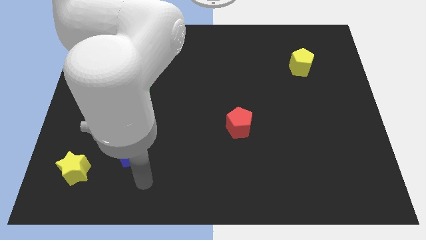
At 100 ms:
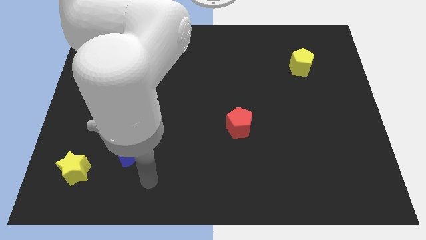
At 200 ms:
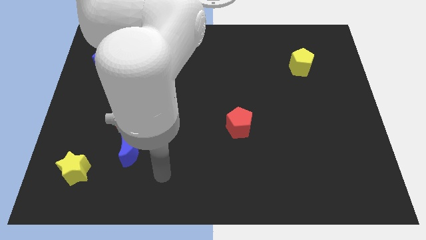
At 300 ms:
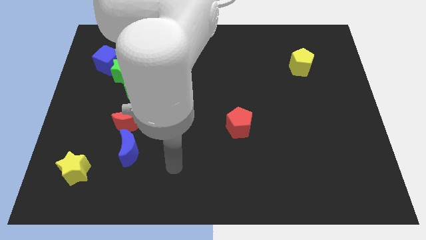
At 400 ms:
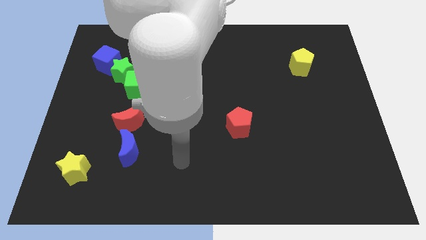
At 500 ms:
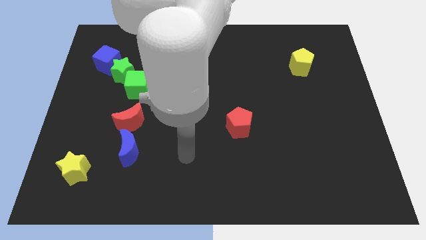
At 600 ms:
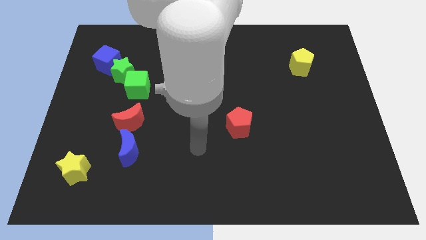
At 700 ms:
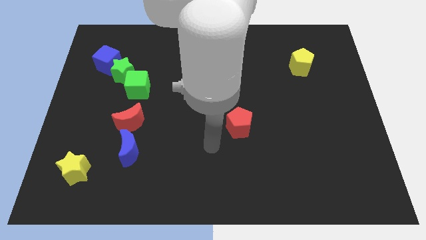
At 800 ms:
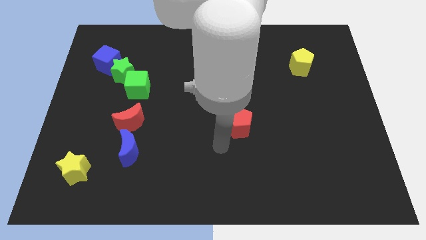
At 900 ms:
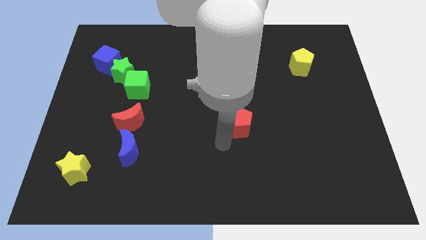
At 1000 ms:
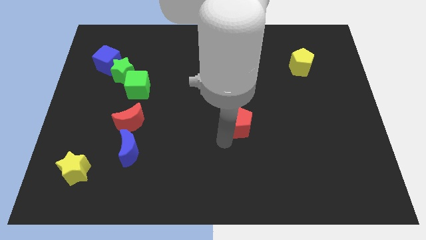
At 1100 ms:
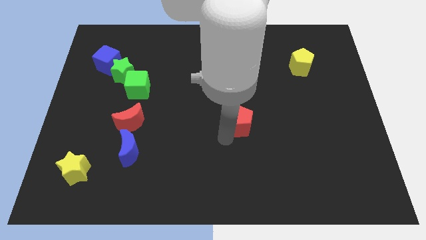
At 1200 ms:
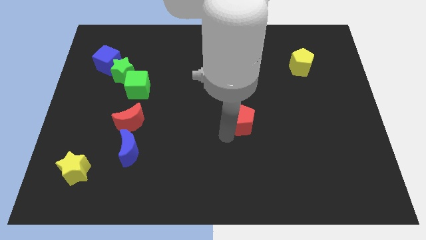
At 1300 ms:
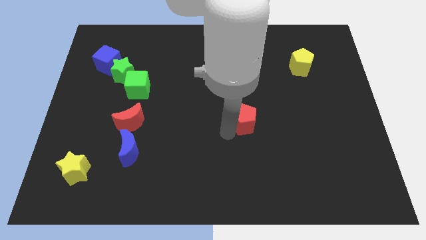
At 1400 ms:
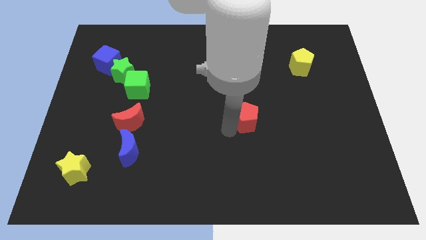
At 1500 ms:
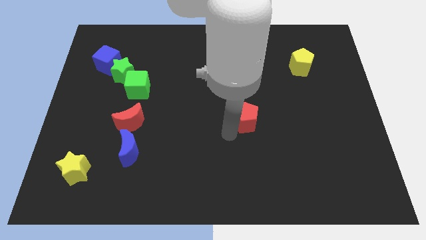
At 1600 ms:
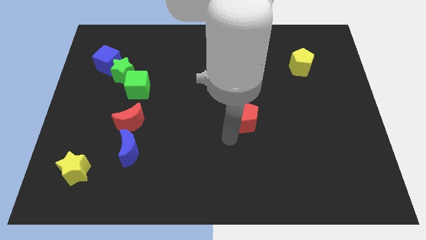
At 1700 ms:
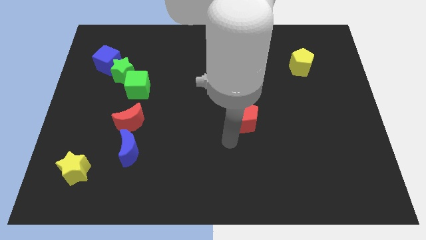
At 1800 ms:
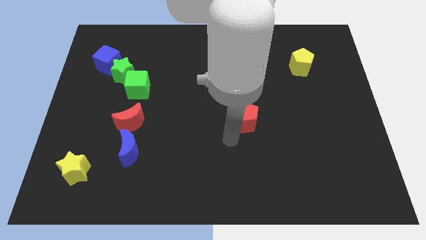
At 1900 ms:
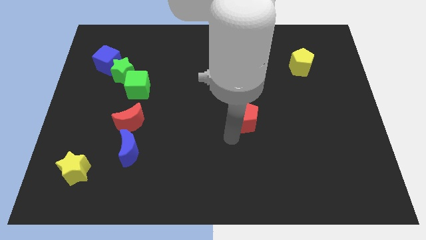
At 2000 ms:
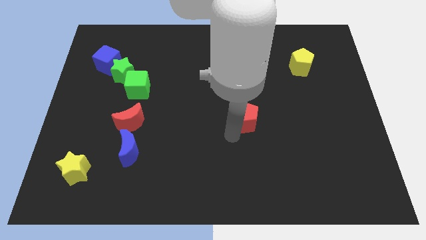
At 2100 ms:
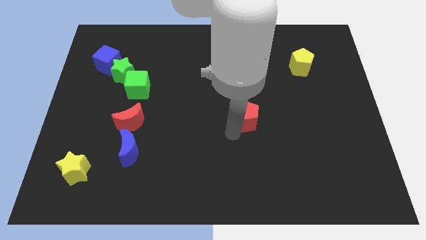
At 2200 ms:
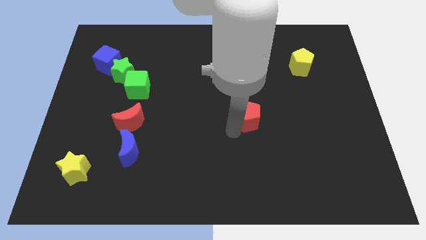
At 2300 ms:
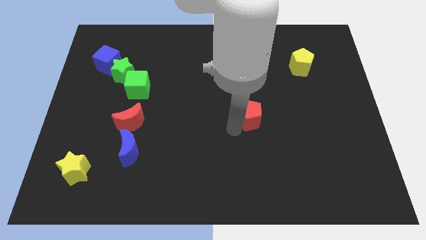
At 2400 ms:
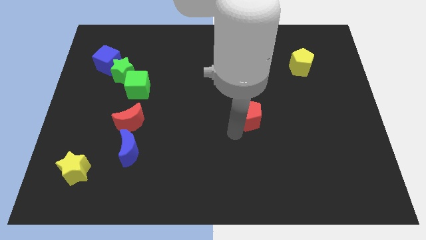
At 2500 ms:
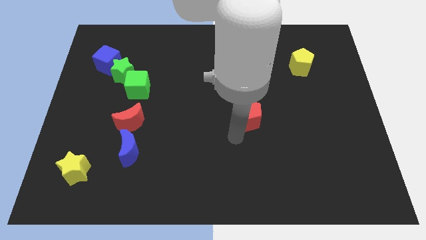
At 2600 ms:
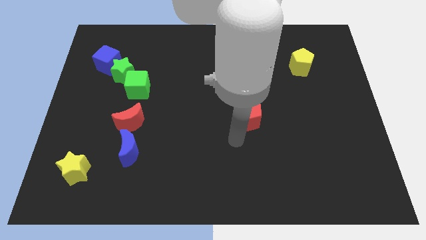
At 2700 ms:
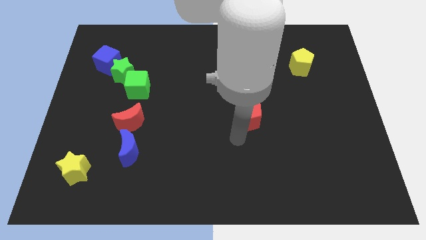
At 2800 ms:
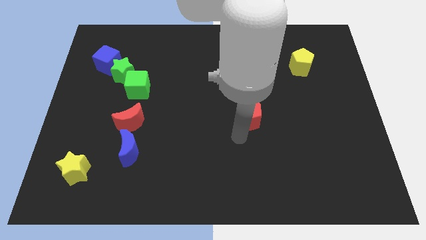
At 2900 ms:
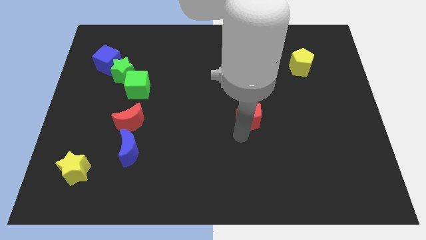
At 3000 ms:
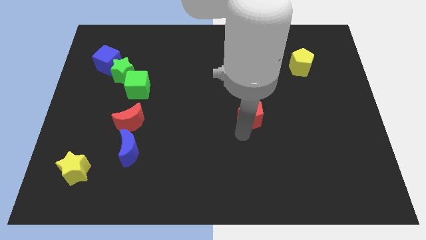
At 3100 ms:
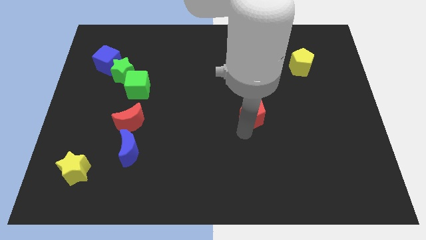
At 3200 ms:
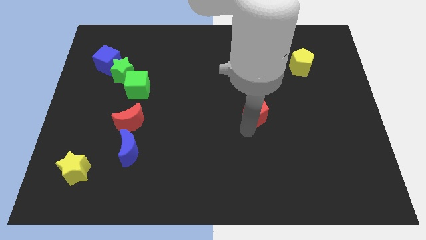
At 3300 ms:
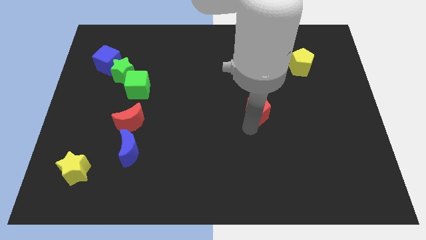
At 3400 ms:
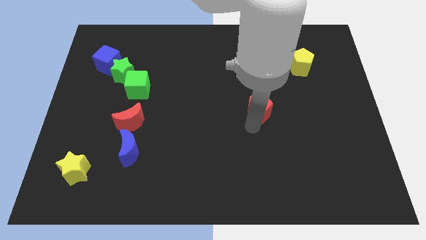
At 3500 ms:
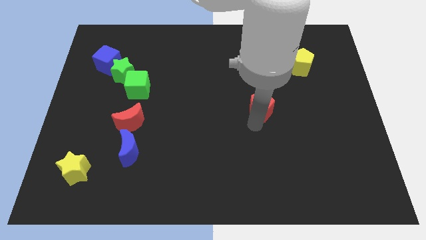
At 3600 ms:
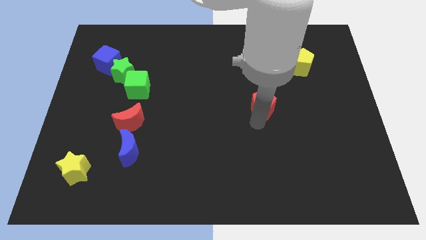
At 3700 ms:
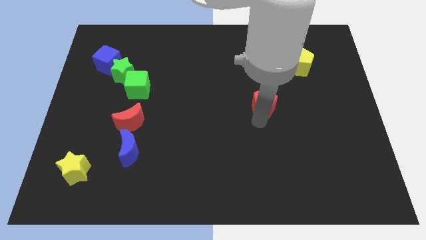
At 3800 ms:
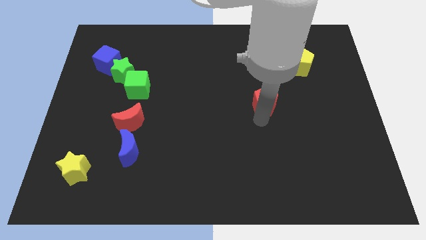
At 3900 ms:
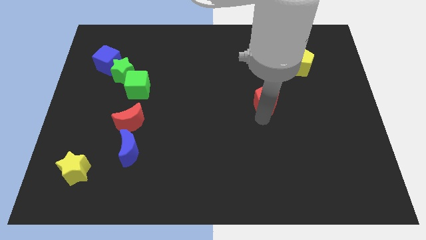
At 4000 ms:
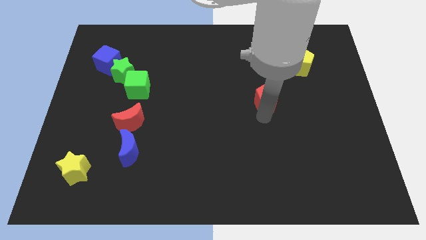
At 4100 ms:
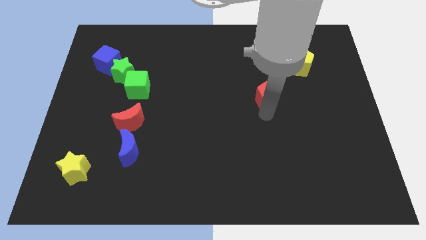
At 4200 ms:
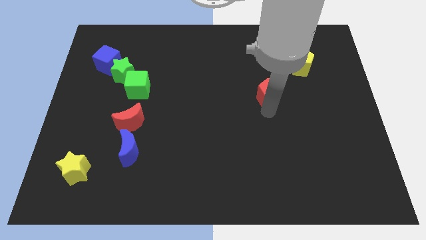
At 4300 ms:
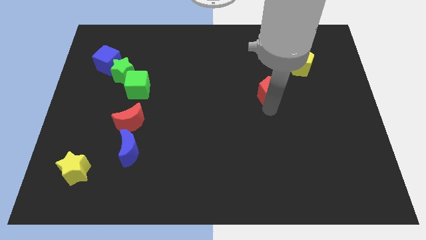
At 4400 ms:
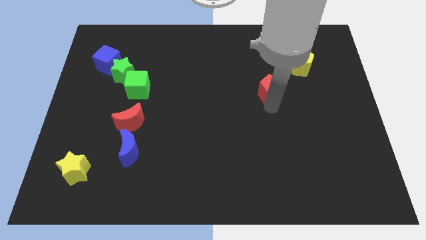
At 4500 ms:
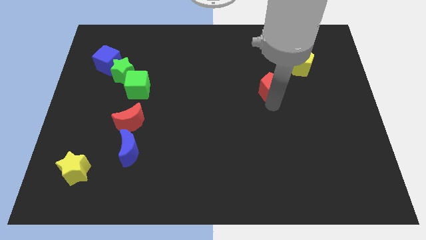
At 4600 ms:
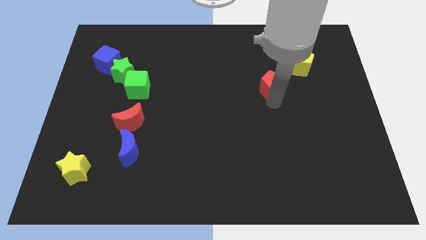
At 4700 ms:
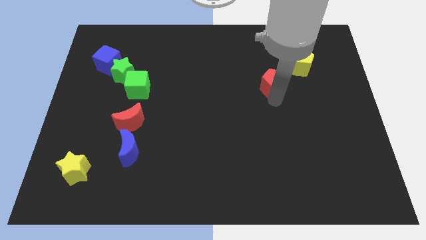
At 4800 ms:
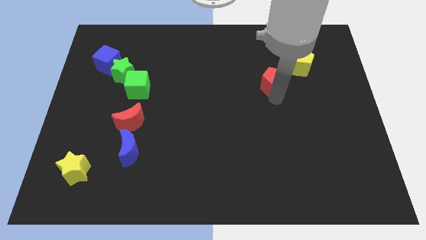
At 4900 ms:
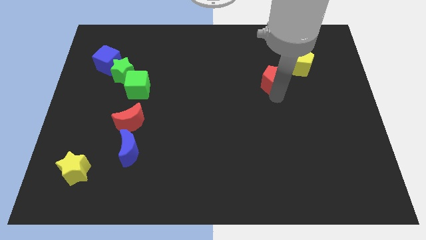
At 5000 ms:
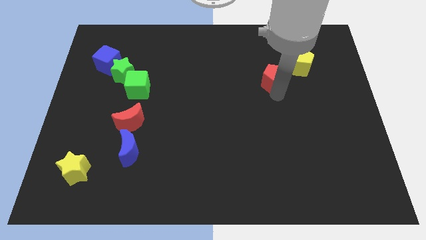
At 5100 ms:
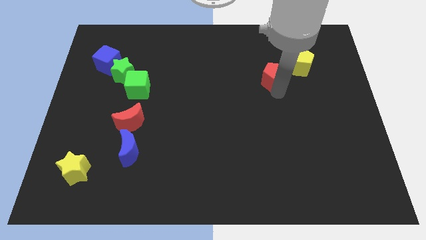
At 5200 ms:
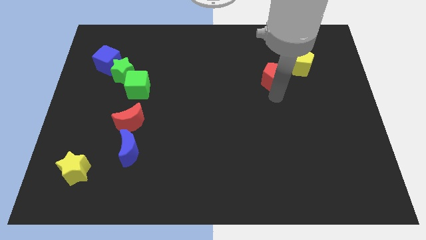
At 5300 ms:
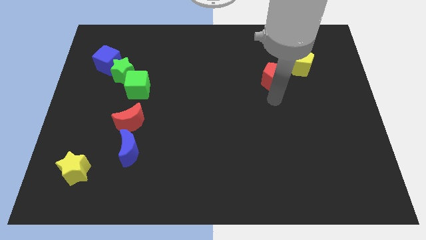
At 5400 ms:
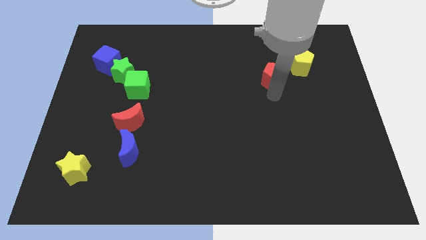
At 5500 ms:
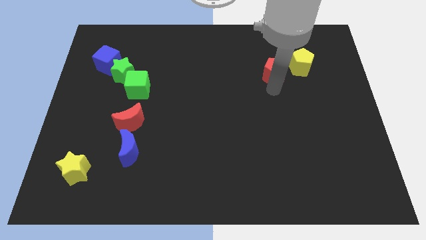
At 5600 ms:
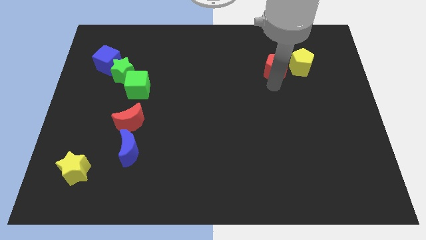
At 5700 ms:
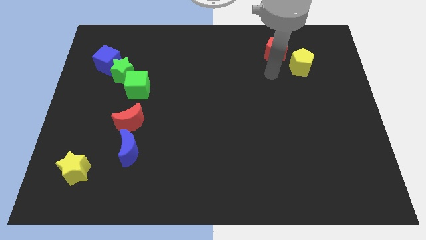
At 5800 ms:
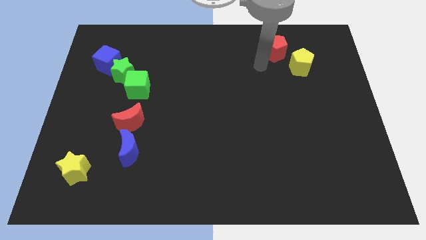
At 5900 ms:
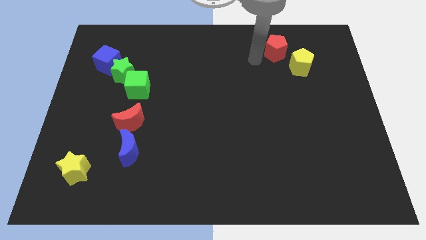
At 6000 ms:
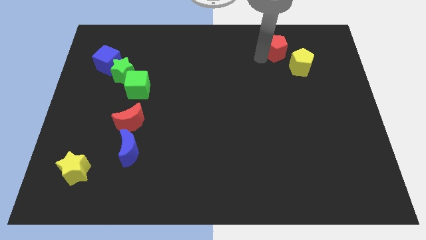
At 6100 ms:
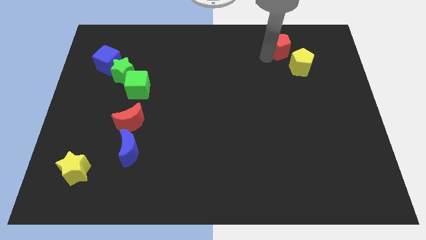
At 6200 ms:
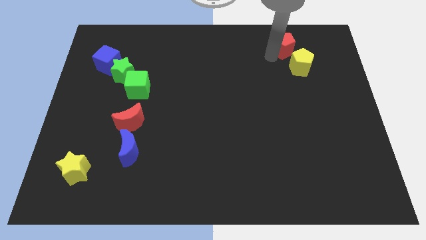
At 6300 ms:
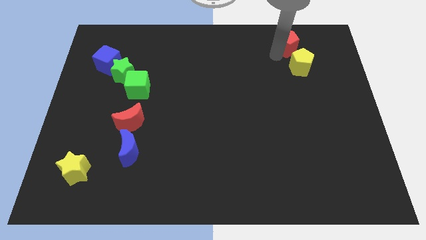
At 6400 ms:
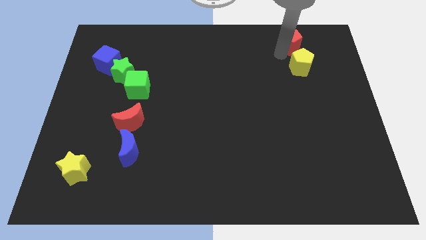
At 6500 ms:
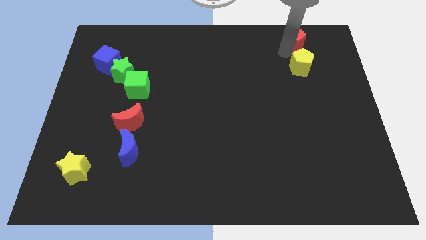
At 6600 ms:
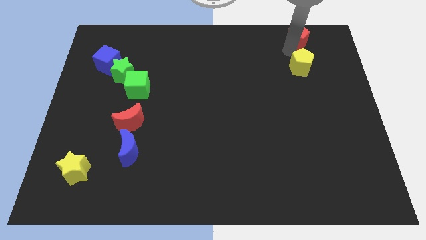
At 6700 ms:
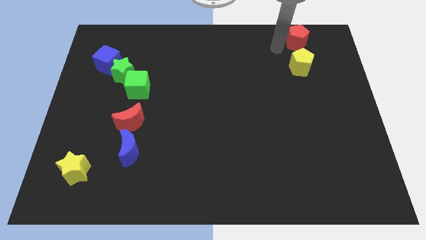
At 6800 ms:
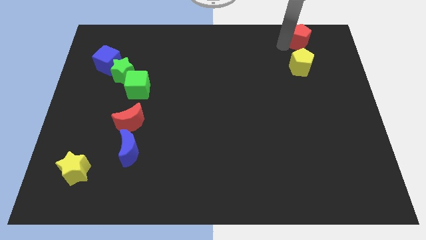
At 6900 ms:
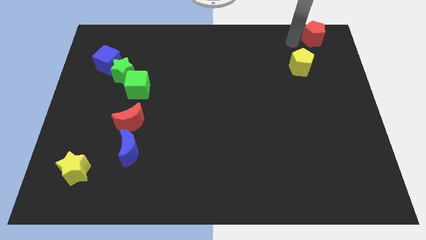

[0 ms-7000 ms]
put the red pentagon to the upper right corner
